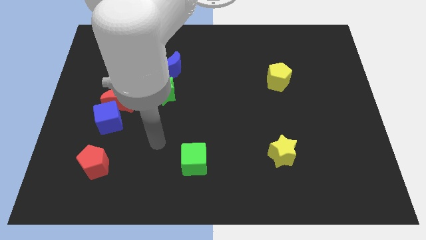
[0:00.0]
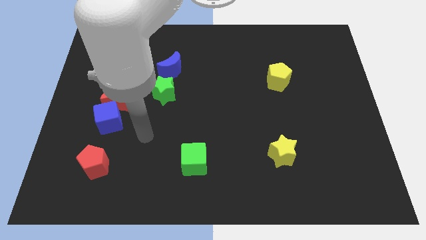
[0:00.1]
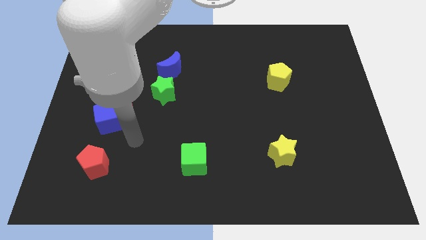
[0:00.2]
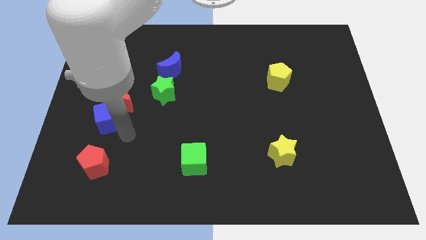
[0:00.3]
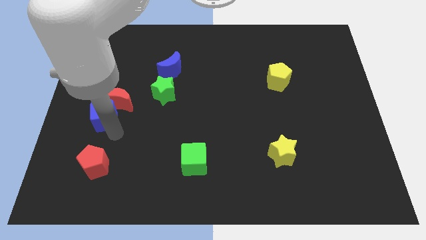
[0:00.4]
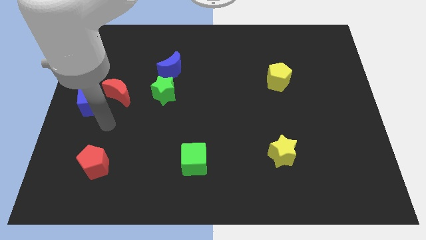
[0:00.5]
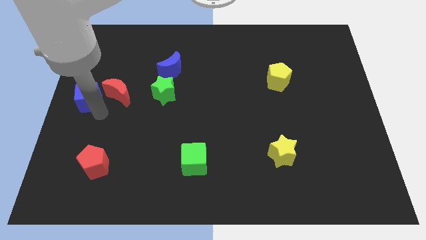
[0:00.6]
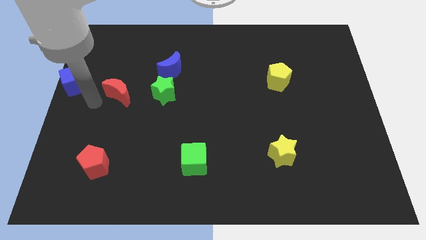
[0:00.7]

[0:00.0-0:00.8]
separate the red moon from the blue cube

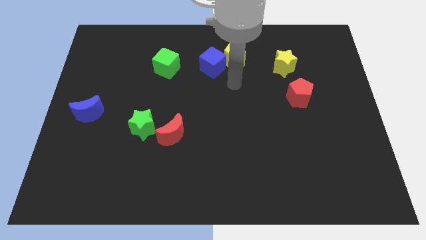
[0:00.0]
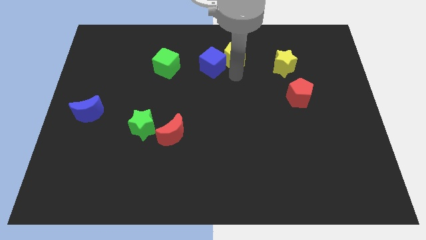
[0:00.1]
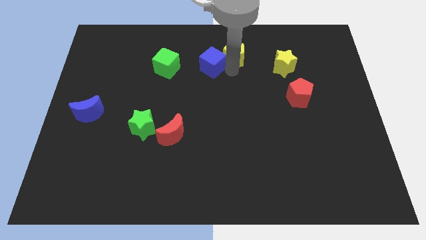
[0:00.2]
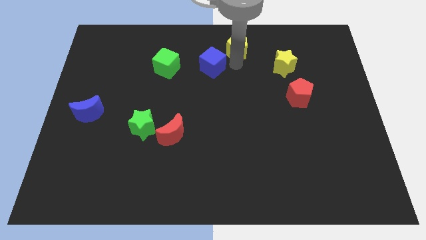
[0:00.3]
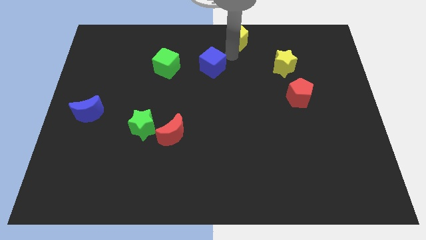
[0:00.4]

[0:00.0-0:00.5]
move the blue cube away from the yellow pentagon

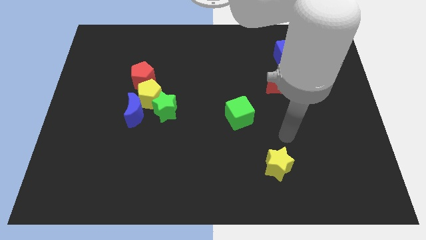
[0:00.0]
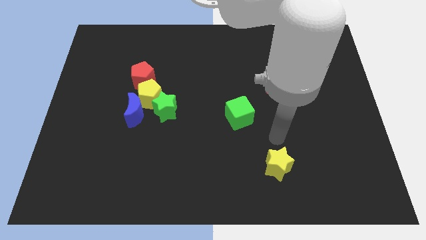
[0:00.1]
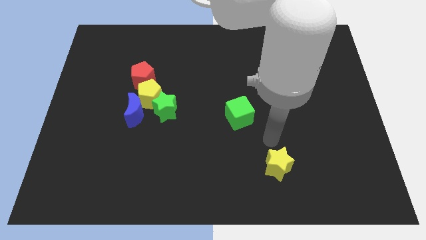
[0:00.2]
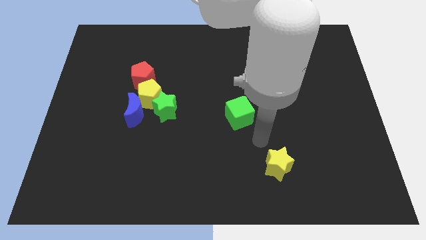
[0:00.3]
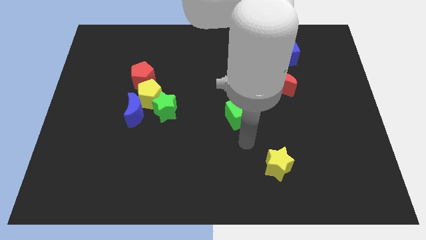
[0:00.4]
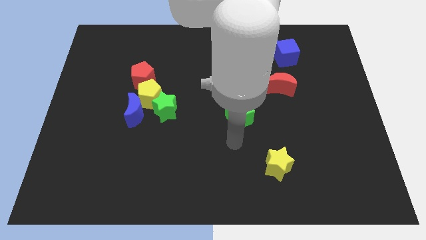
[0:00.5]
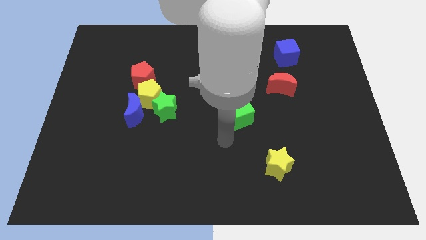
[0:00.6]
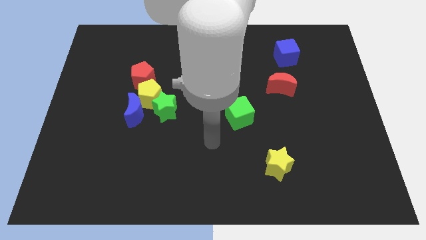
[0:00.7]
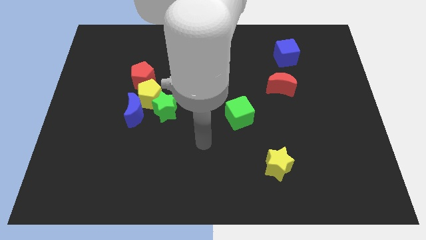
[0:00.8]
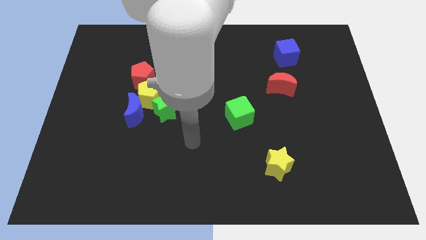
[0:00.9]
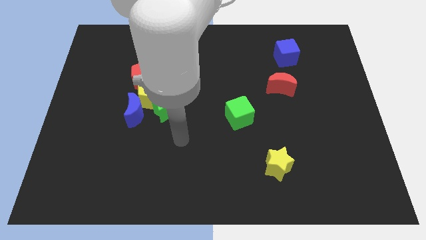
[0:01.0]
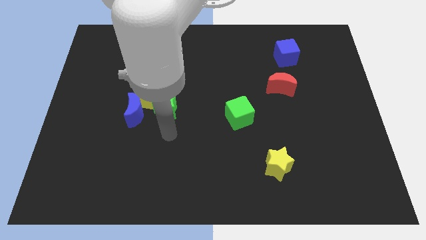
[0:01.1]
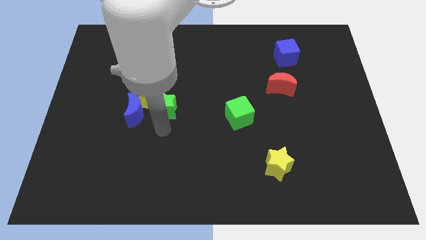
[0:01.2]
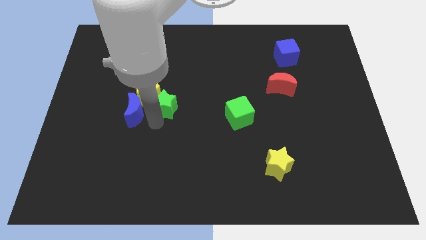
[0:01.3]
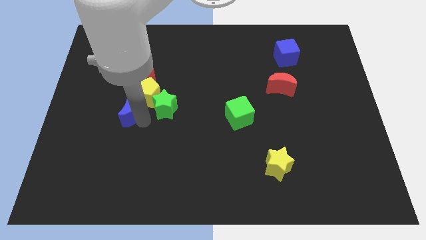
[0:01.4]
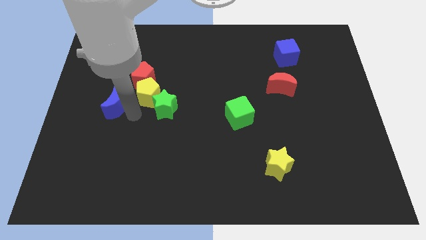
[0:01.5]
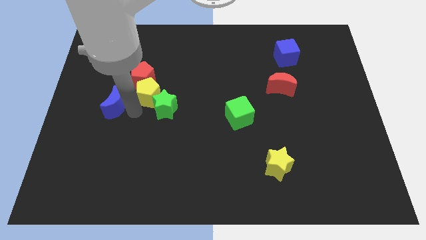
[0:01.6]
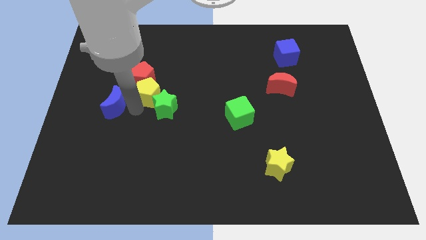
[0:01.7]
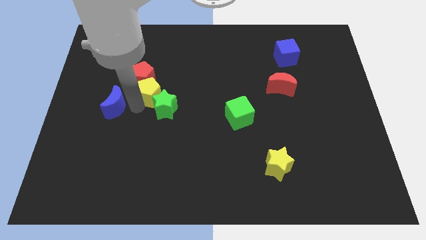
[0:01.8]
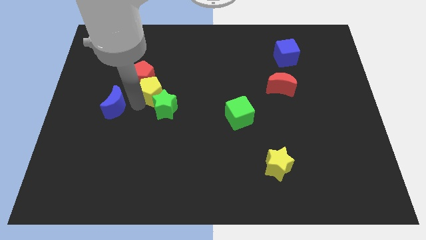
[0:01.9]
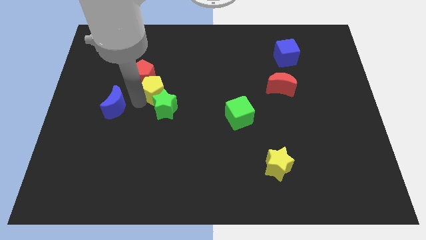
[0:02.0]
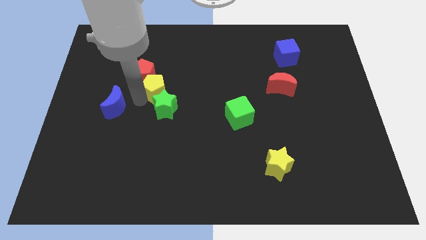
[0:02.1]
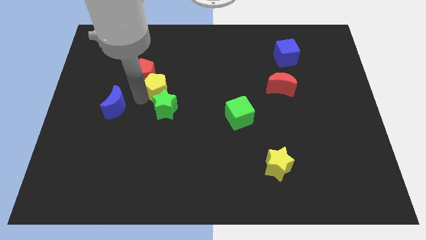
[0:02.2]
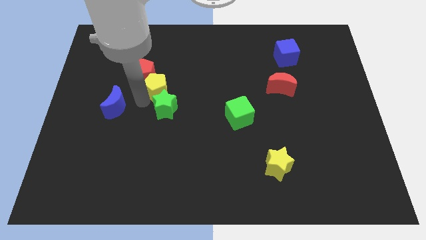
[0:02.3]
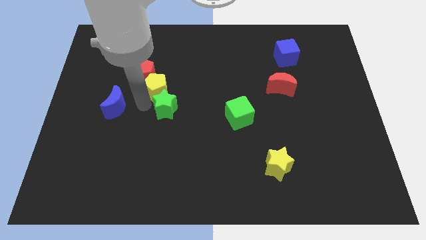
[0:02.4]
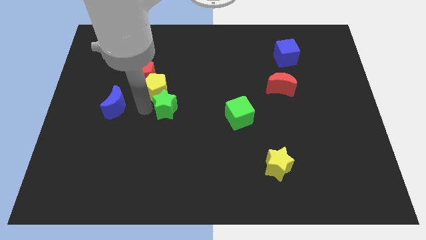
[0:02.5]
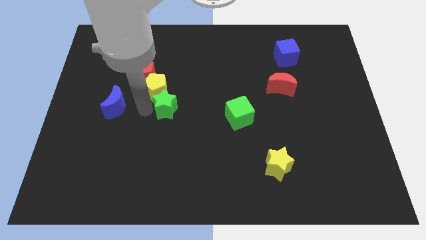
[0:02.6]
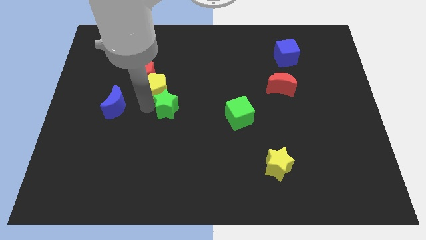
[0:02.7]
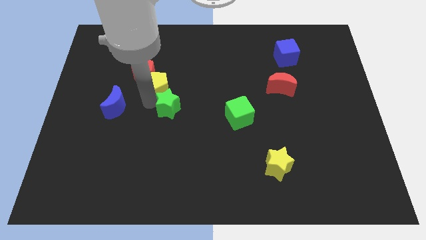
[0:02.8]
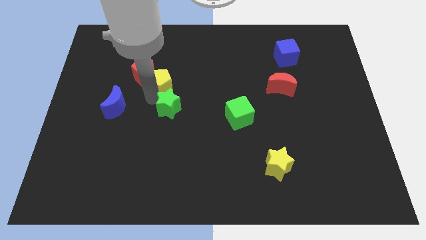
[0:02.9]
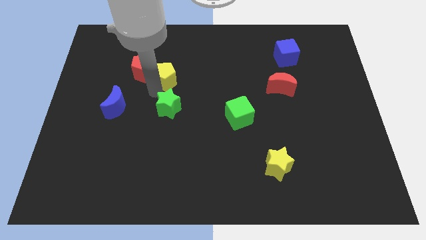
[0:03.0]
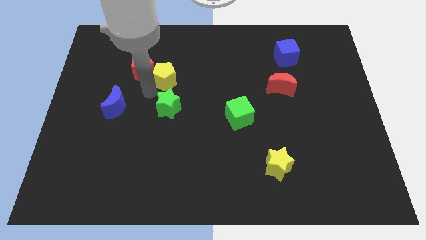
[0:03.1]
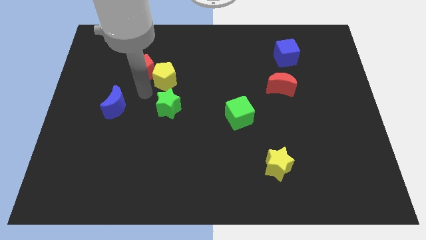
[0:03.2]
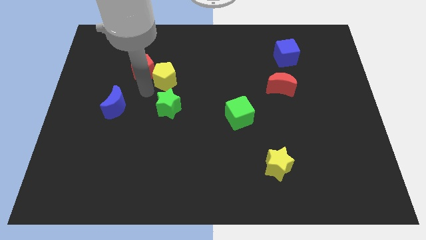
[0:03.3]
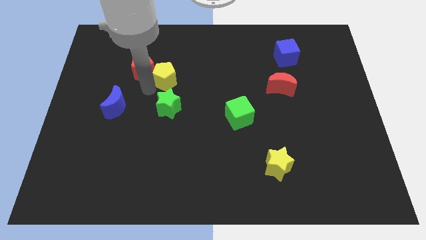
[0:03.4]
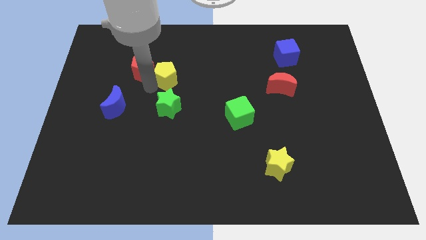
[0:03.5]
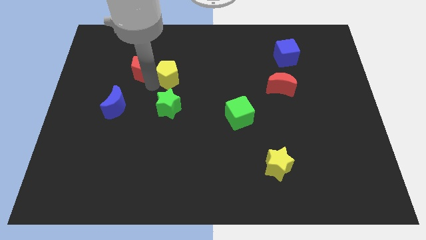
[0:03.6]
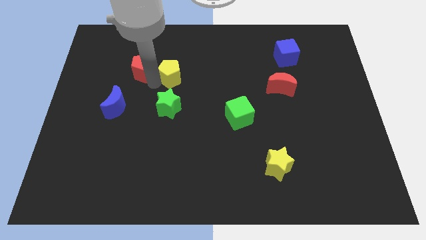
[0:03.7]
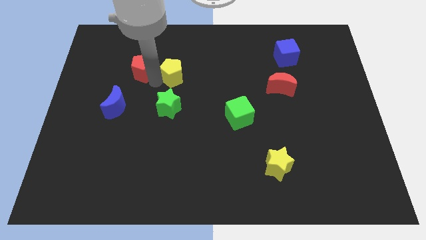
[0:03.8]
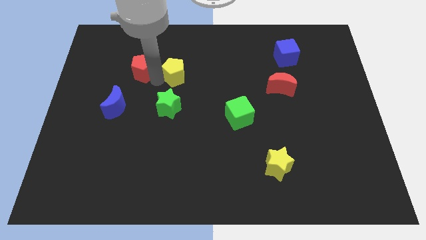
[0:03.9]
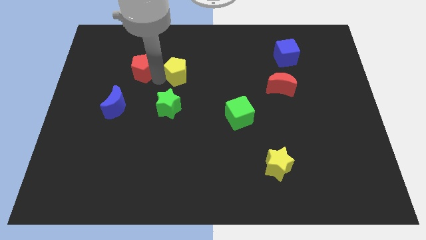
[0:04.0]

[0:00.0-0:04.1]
separate the yellow pentagon from the green star, blue moon, and red pentagon

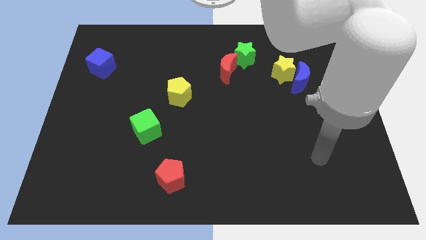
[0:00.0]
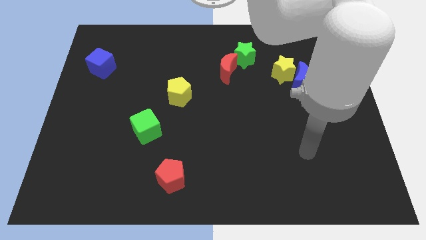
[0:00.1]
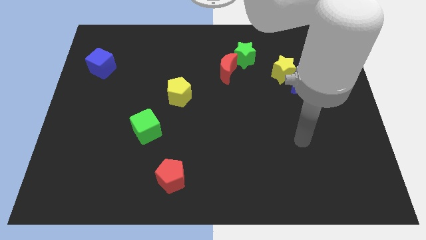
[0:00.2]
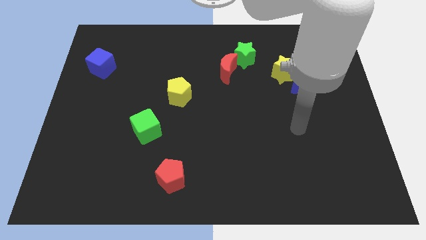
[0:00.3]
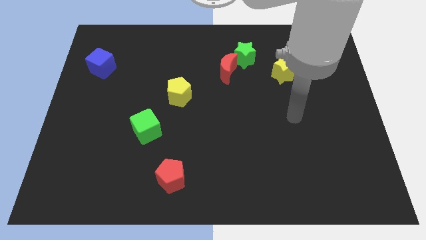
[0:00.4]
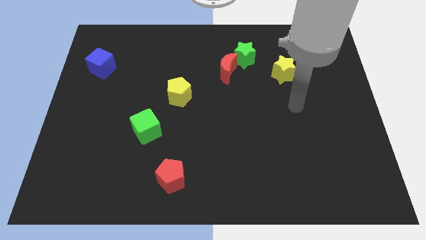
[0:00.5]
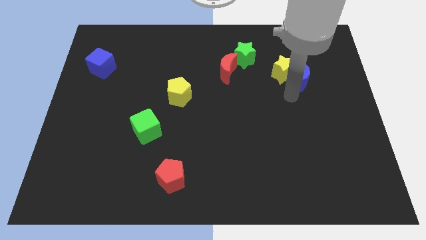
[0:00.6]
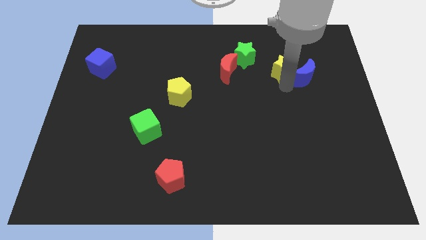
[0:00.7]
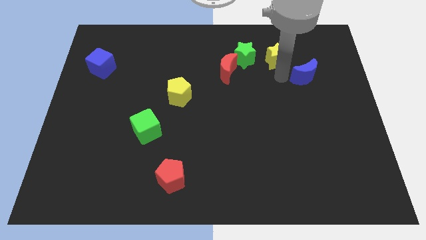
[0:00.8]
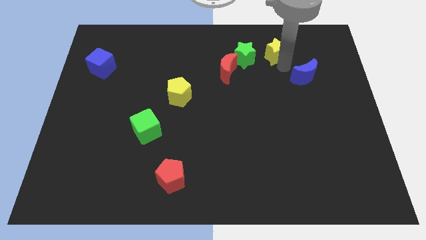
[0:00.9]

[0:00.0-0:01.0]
pull the blue moon apart from the yellow star

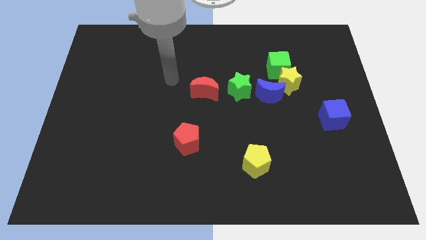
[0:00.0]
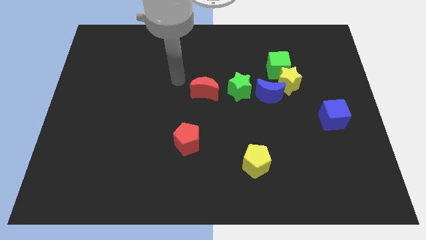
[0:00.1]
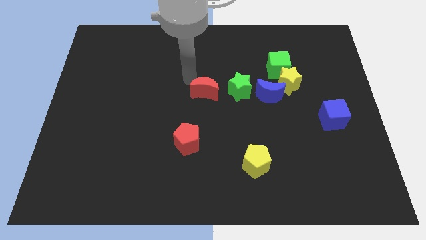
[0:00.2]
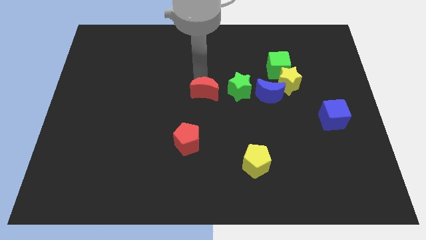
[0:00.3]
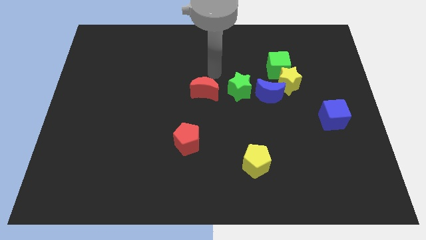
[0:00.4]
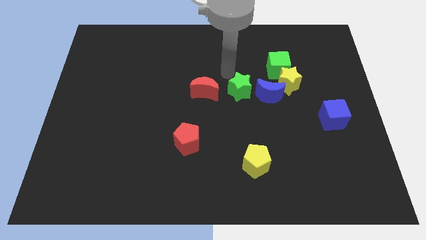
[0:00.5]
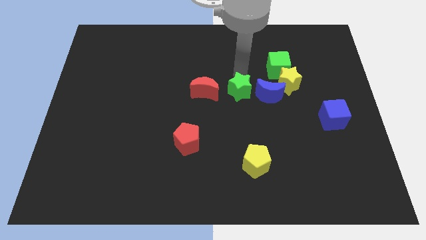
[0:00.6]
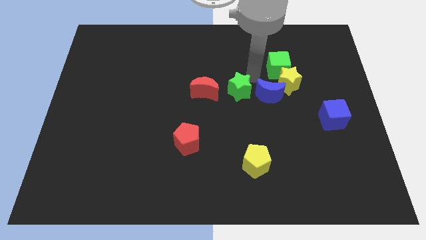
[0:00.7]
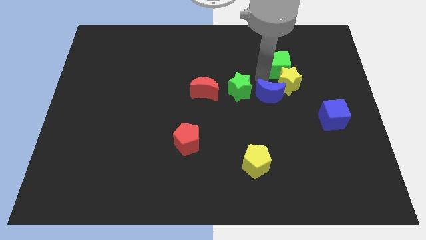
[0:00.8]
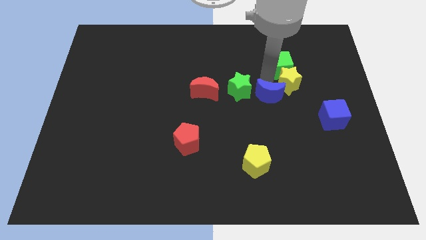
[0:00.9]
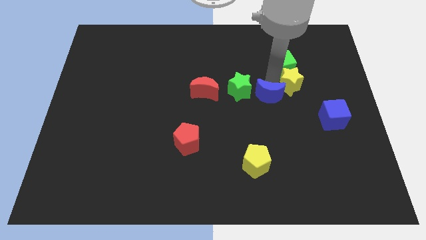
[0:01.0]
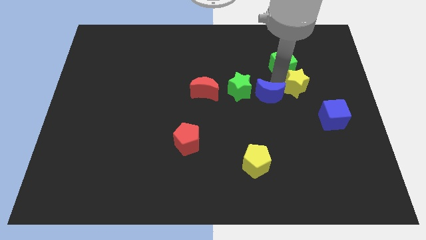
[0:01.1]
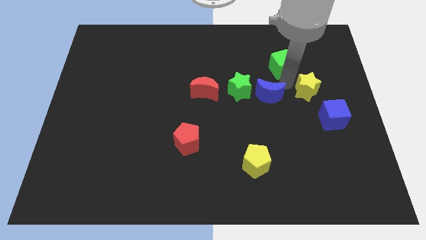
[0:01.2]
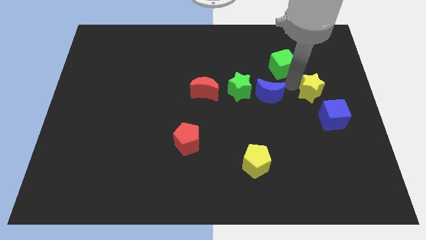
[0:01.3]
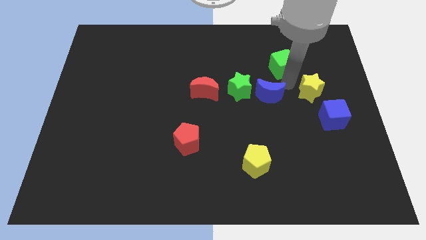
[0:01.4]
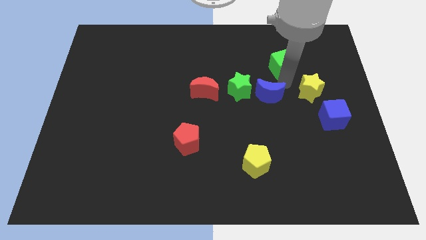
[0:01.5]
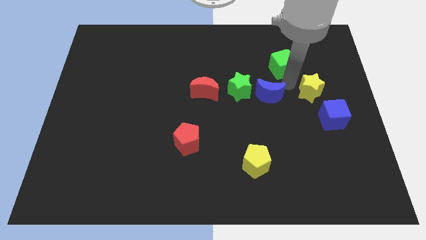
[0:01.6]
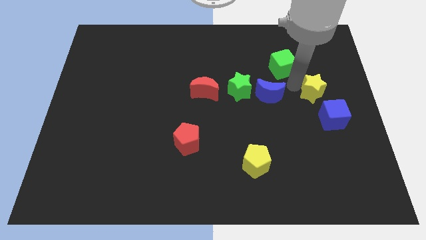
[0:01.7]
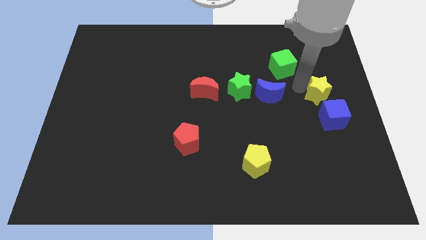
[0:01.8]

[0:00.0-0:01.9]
separate the yellow star from the green cube and blue moon

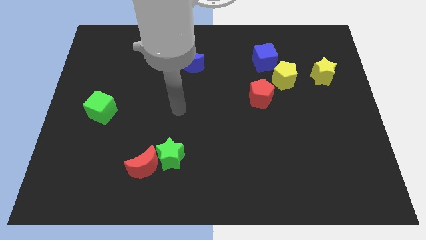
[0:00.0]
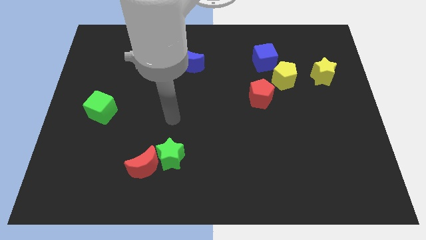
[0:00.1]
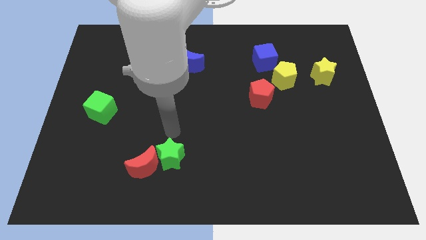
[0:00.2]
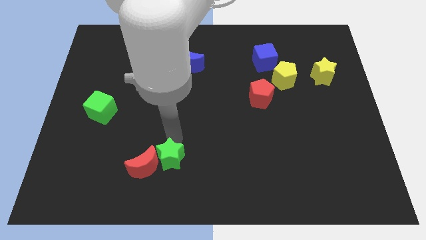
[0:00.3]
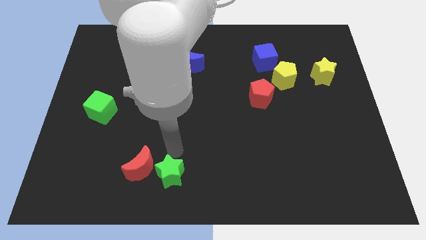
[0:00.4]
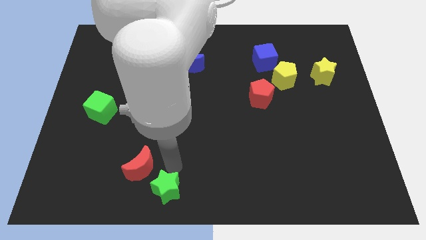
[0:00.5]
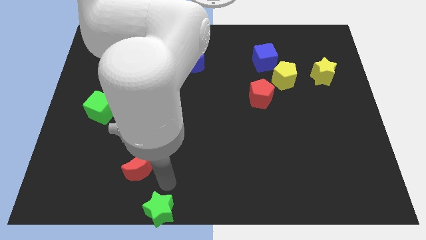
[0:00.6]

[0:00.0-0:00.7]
move the red moon away from the green star

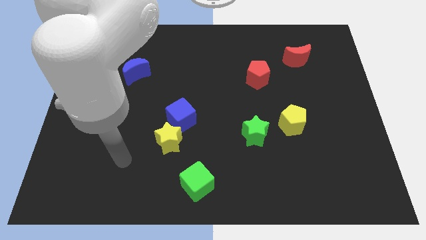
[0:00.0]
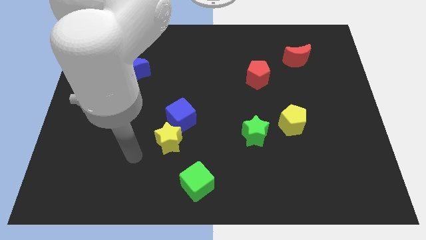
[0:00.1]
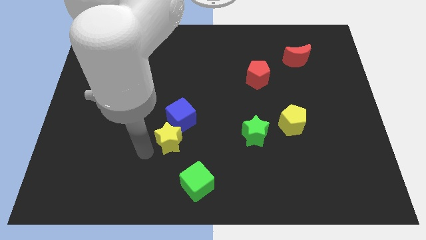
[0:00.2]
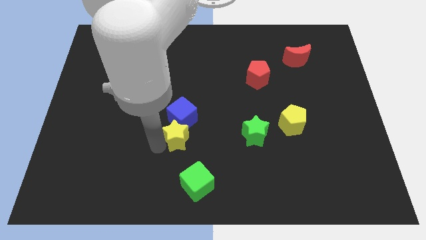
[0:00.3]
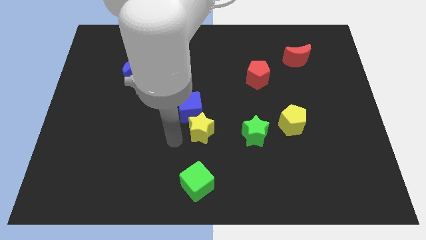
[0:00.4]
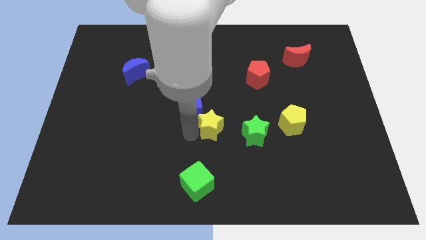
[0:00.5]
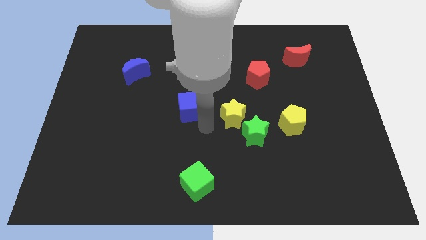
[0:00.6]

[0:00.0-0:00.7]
pull the blue cube apart from the yellow star
